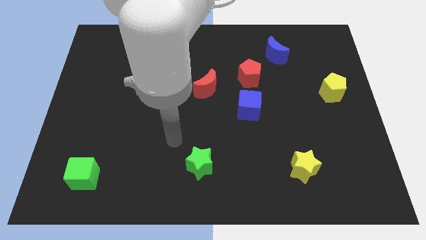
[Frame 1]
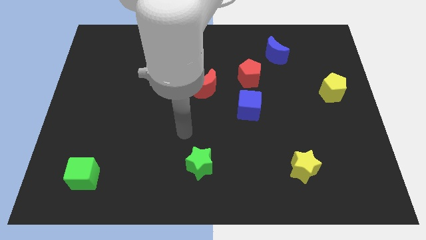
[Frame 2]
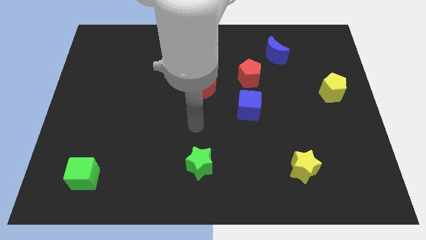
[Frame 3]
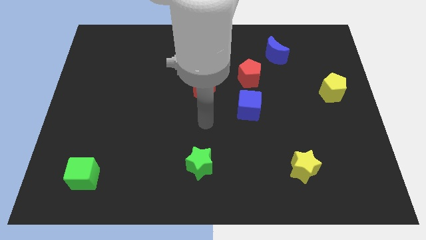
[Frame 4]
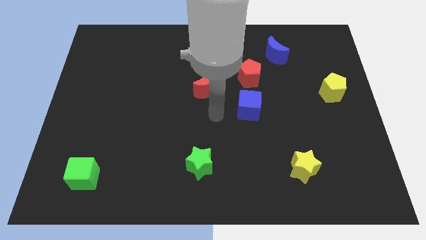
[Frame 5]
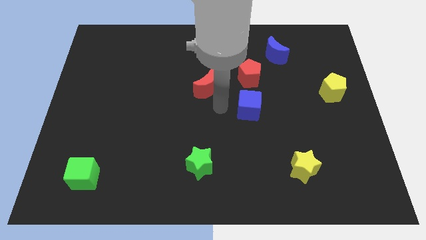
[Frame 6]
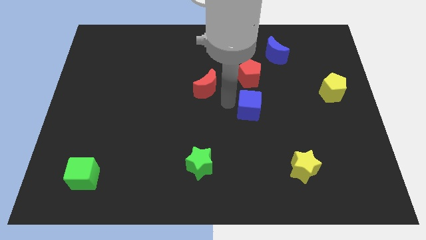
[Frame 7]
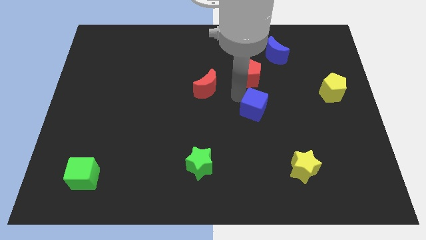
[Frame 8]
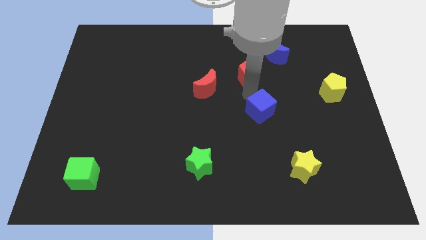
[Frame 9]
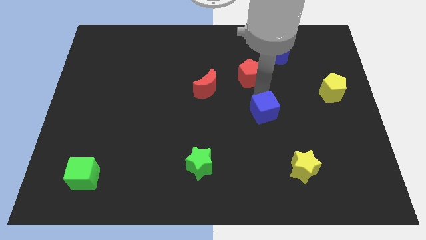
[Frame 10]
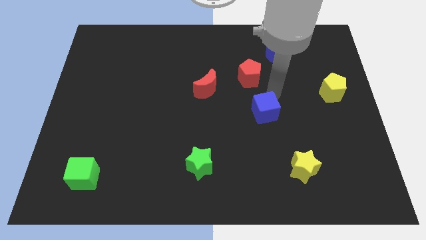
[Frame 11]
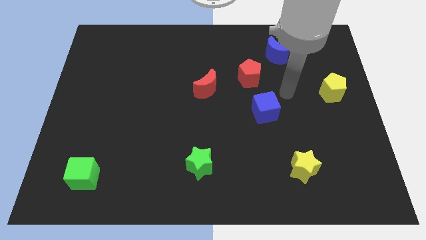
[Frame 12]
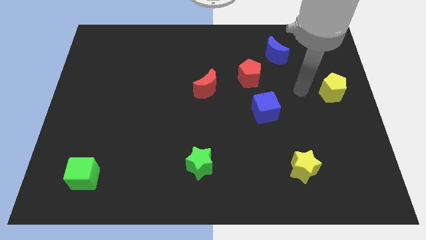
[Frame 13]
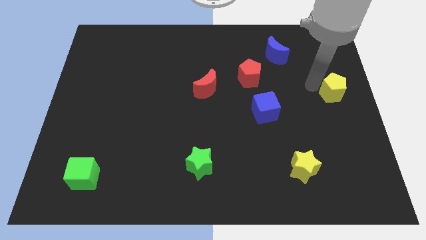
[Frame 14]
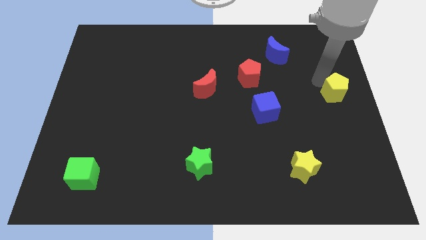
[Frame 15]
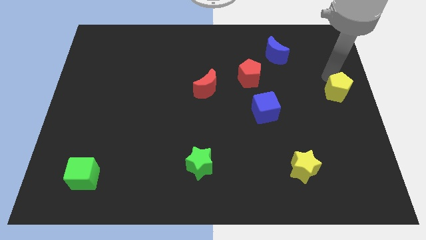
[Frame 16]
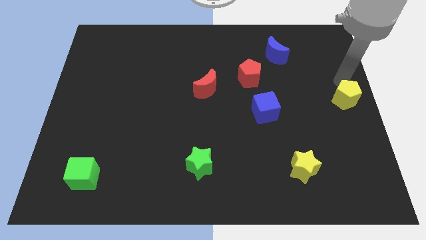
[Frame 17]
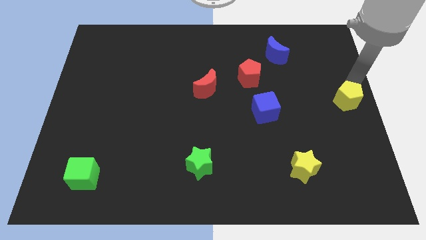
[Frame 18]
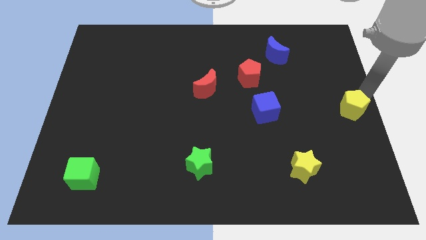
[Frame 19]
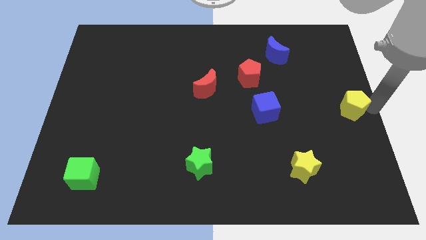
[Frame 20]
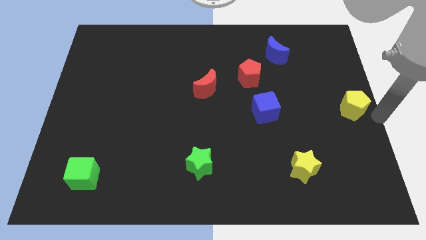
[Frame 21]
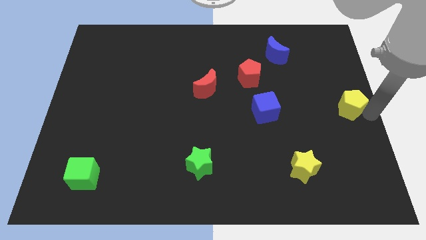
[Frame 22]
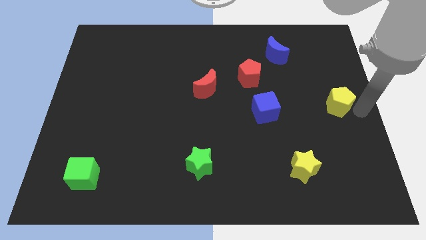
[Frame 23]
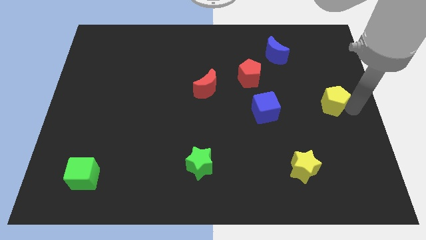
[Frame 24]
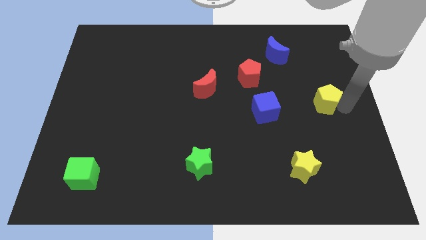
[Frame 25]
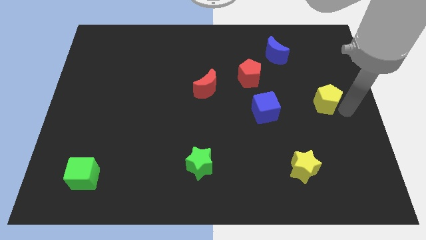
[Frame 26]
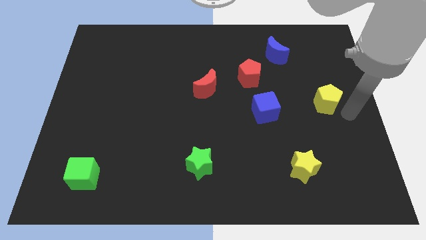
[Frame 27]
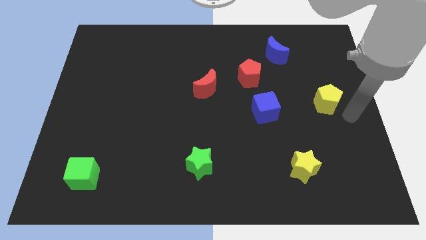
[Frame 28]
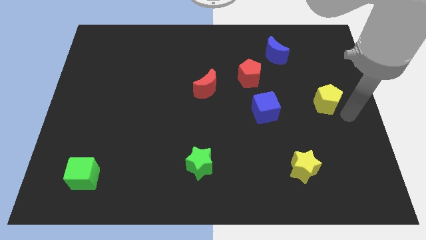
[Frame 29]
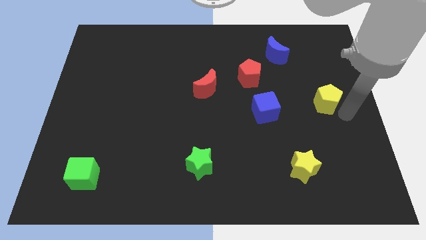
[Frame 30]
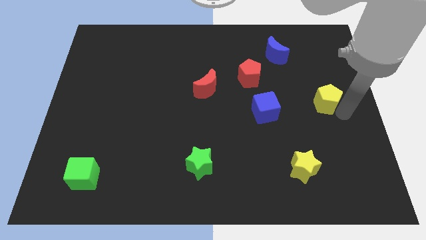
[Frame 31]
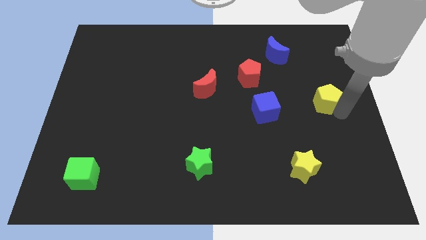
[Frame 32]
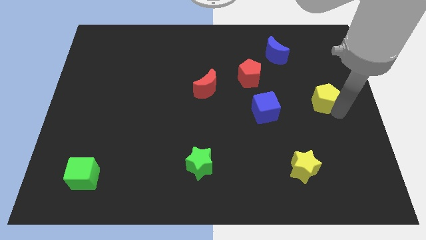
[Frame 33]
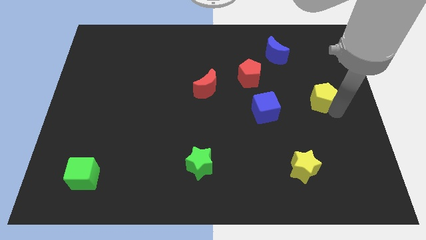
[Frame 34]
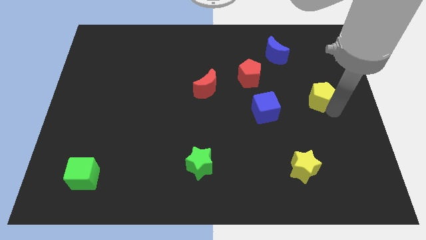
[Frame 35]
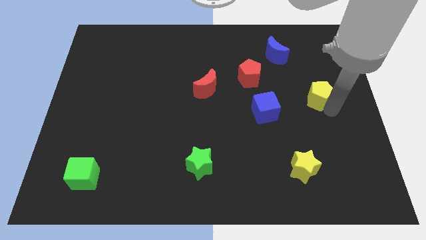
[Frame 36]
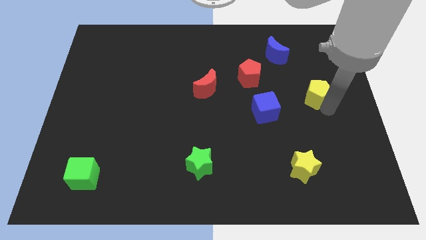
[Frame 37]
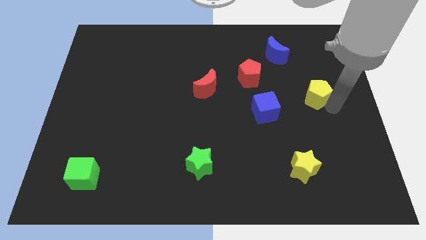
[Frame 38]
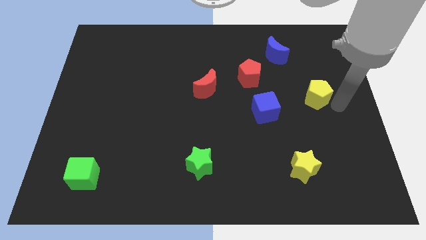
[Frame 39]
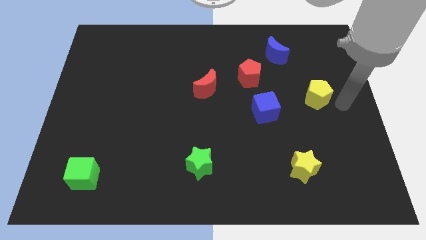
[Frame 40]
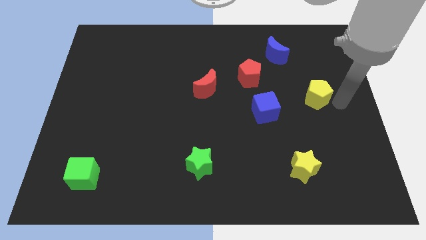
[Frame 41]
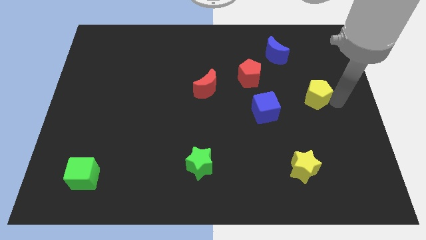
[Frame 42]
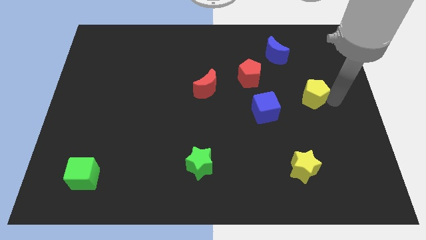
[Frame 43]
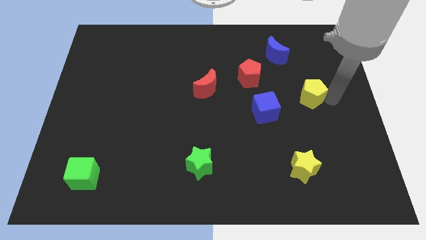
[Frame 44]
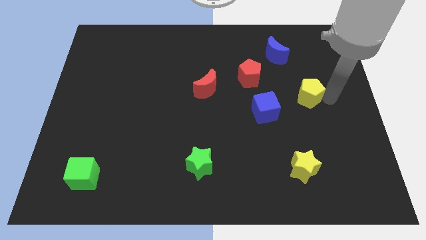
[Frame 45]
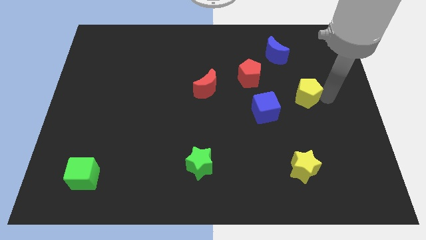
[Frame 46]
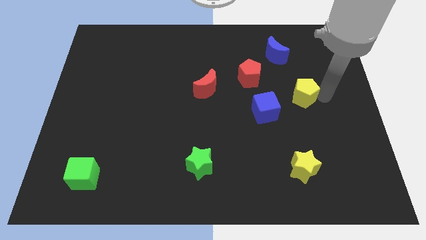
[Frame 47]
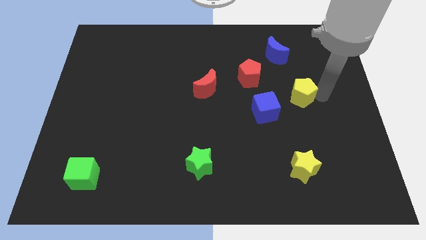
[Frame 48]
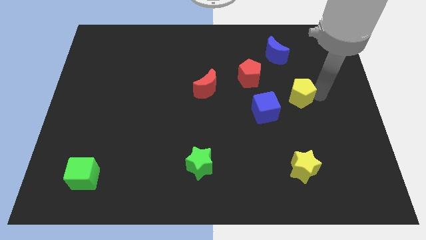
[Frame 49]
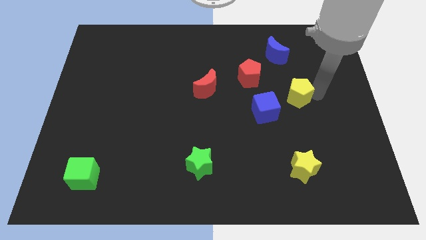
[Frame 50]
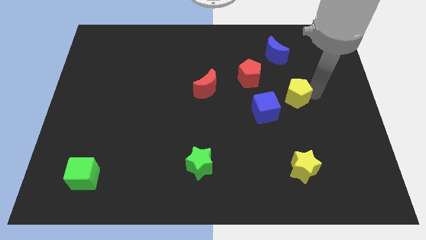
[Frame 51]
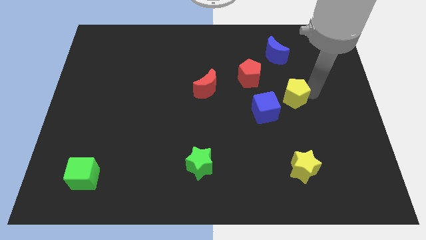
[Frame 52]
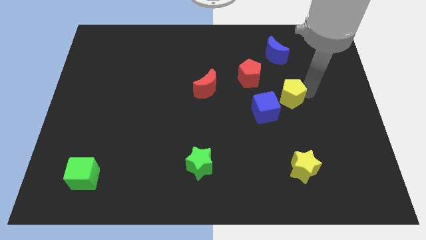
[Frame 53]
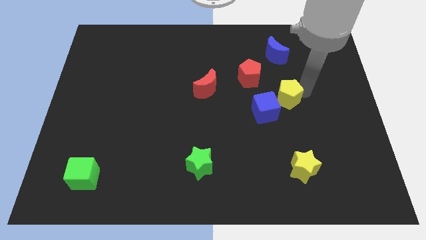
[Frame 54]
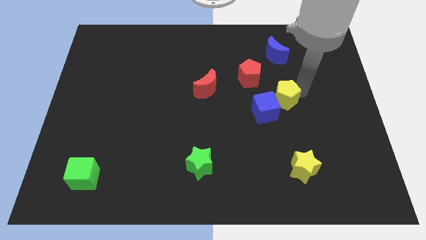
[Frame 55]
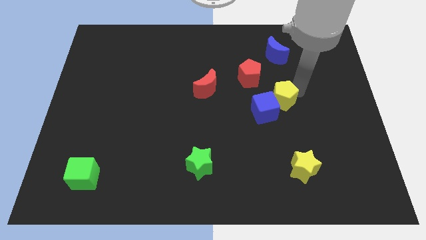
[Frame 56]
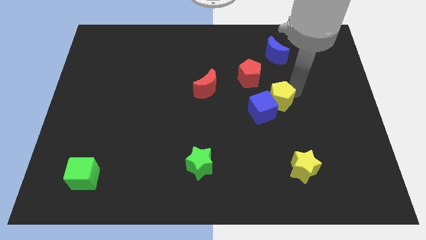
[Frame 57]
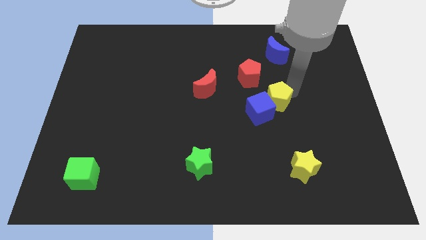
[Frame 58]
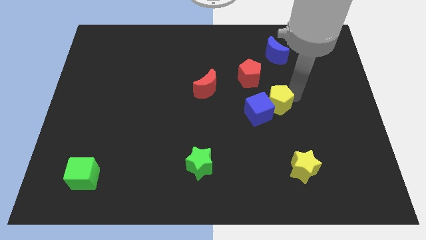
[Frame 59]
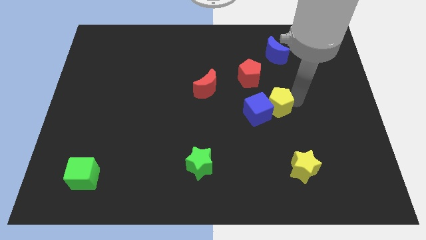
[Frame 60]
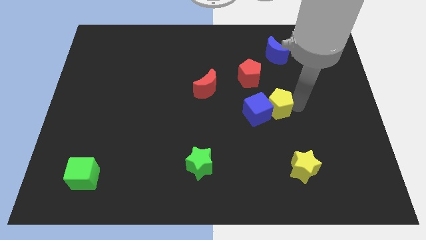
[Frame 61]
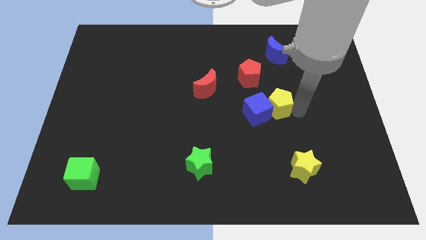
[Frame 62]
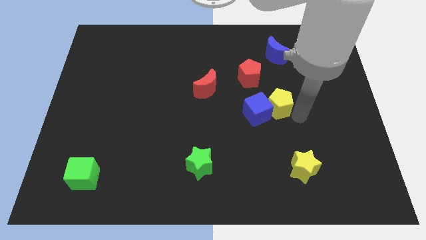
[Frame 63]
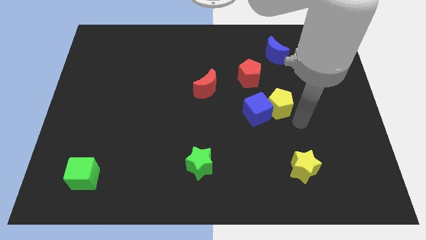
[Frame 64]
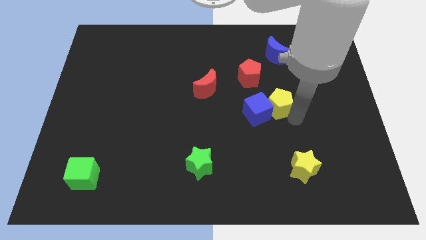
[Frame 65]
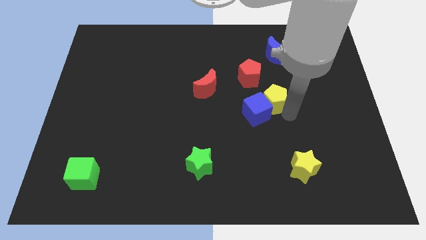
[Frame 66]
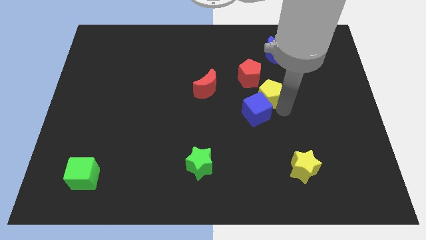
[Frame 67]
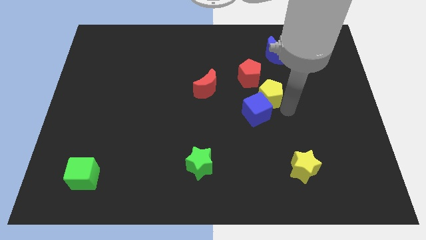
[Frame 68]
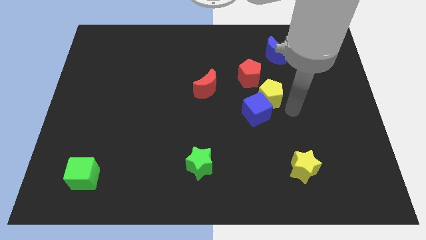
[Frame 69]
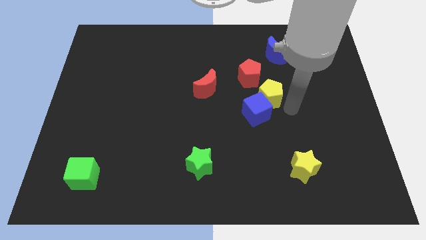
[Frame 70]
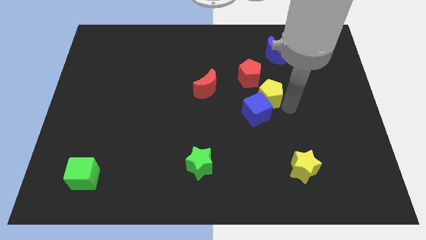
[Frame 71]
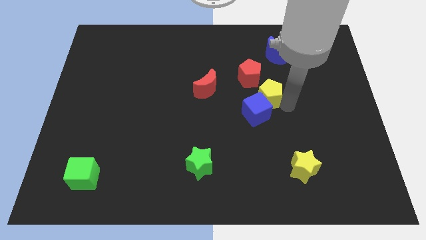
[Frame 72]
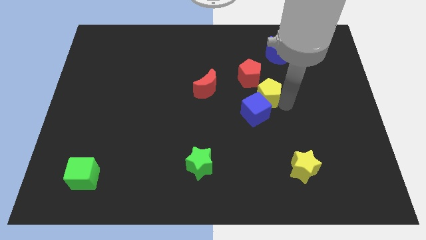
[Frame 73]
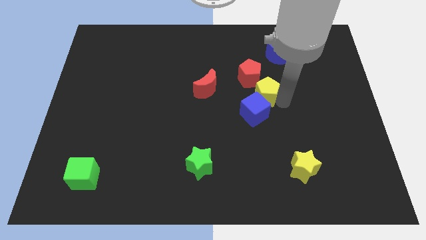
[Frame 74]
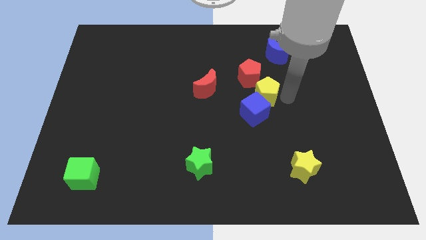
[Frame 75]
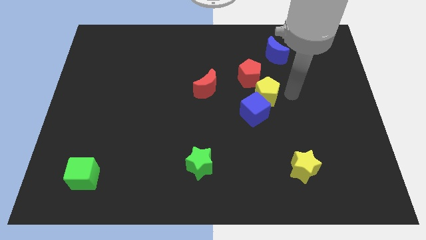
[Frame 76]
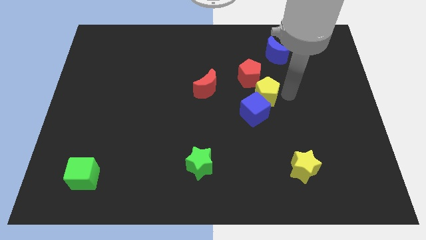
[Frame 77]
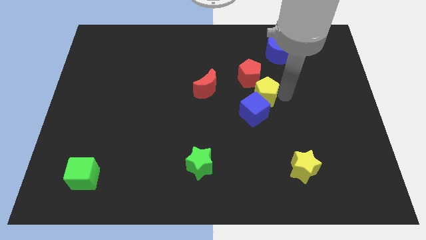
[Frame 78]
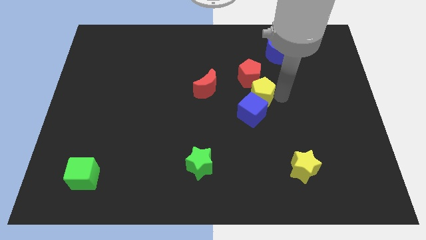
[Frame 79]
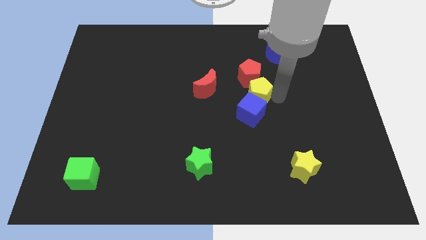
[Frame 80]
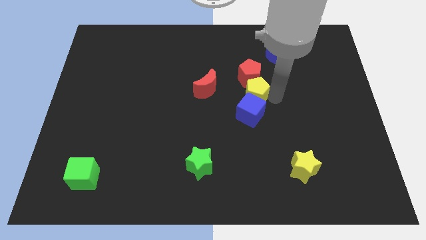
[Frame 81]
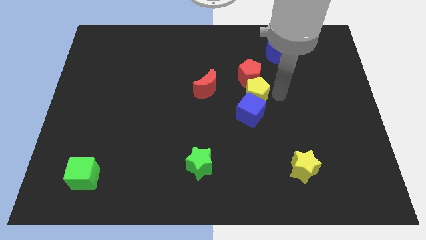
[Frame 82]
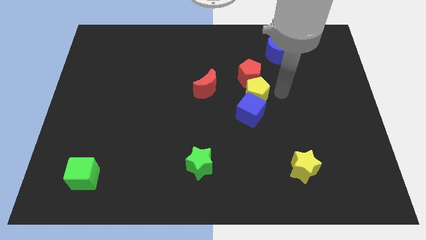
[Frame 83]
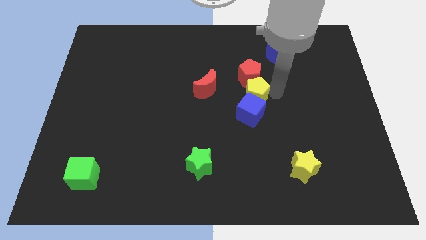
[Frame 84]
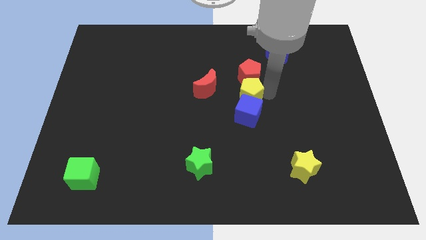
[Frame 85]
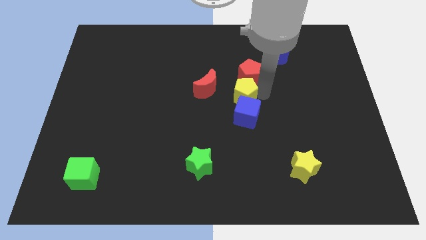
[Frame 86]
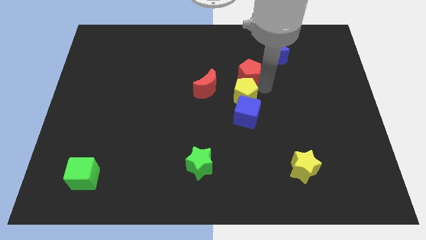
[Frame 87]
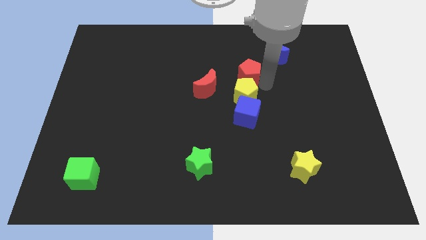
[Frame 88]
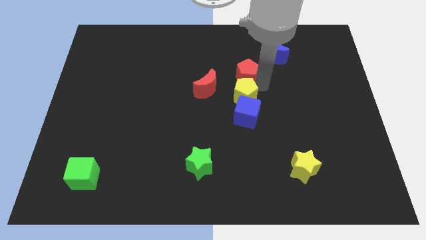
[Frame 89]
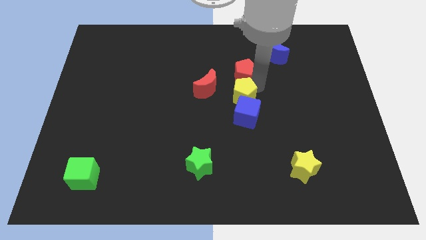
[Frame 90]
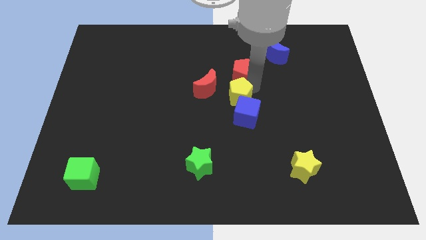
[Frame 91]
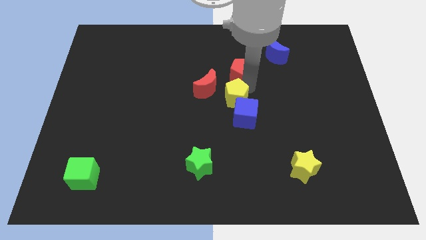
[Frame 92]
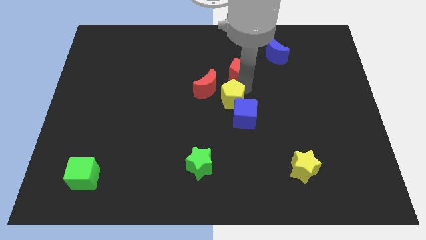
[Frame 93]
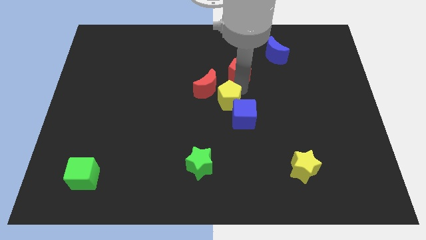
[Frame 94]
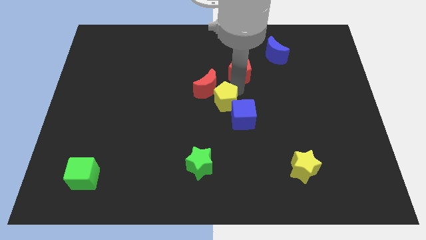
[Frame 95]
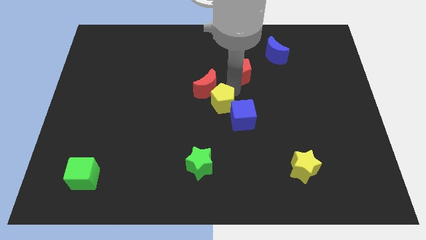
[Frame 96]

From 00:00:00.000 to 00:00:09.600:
put the yellow pentagon to the left side of the blue cube
